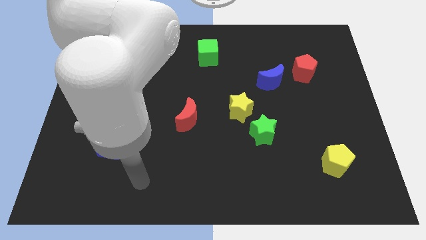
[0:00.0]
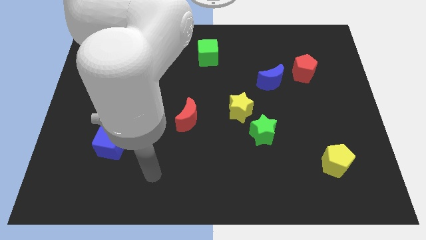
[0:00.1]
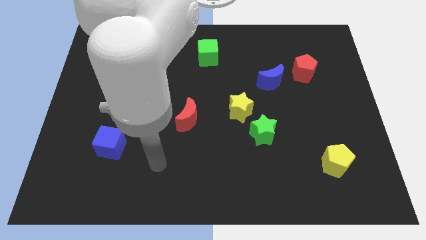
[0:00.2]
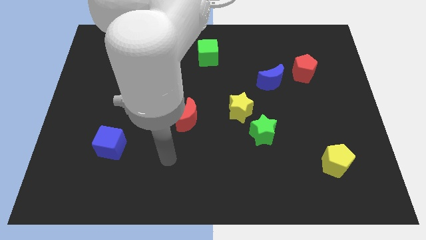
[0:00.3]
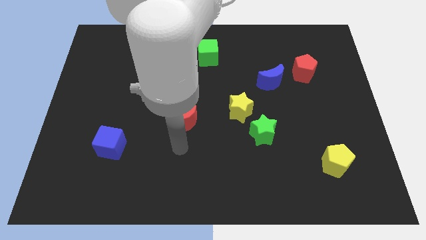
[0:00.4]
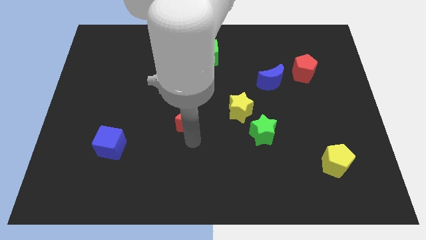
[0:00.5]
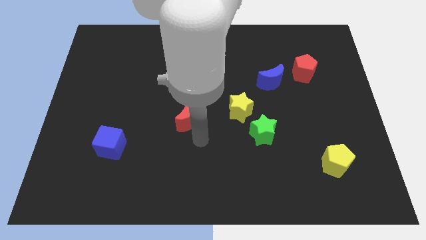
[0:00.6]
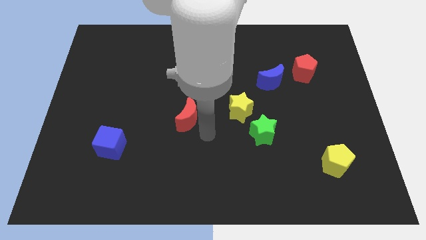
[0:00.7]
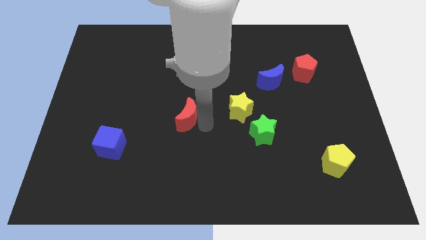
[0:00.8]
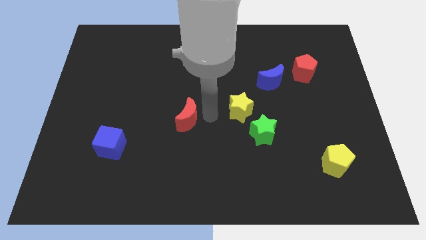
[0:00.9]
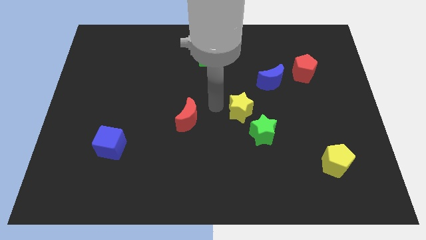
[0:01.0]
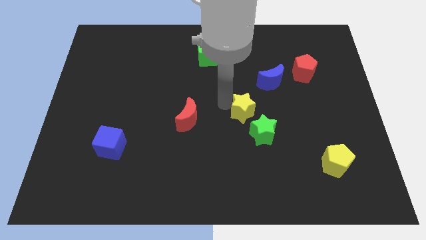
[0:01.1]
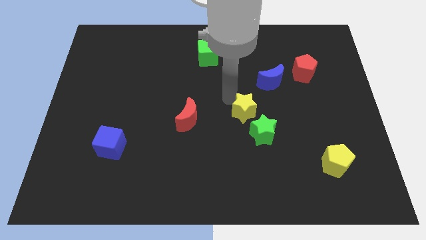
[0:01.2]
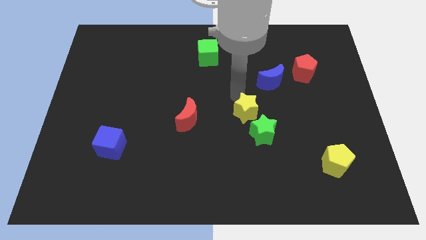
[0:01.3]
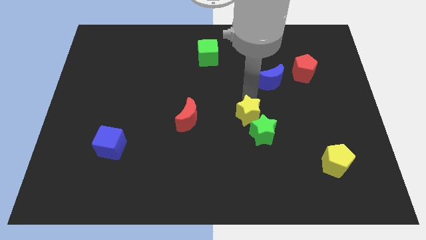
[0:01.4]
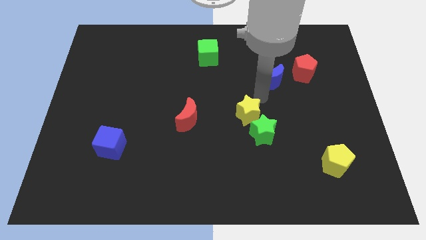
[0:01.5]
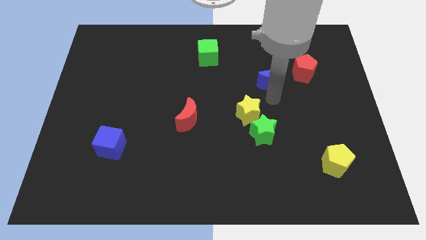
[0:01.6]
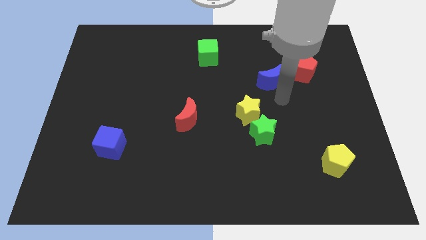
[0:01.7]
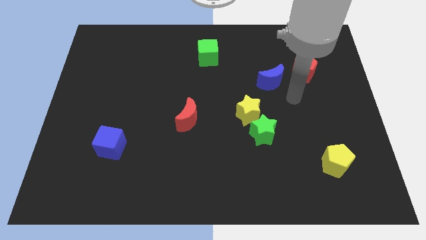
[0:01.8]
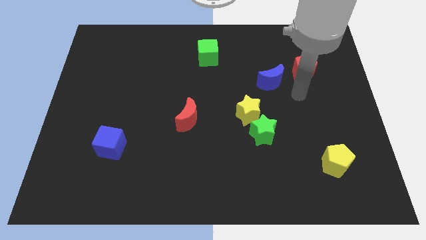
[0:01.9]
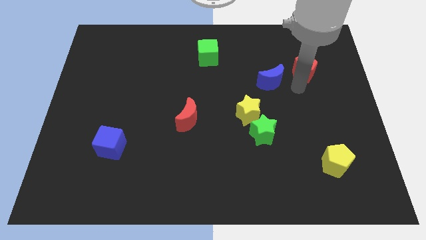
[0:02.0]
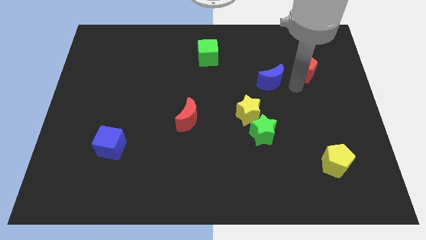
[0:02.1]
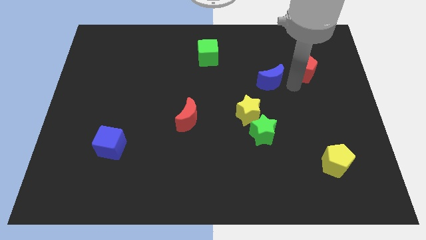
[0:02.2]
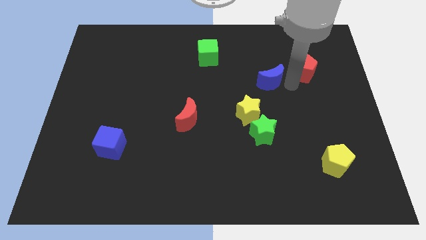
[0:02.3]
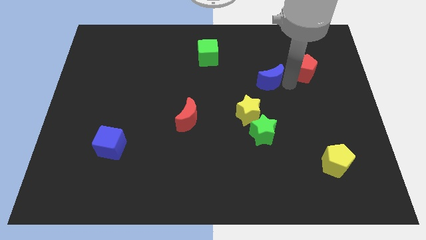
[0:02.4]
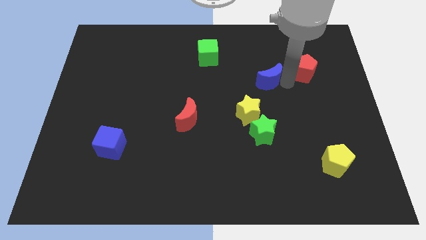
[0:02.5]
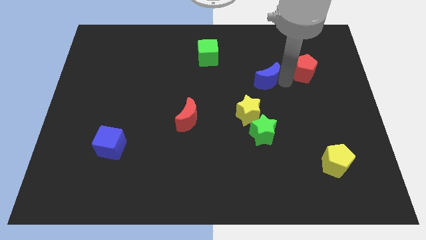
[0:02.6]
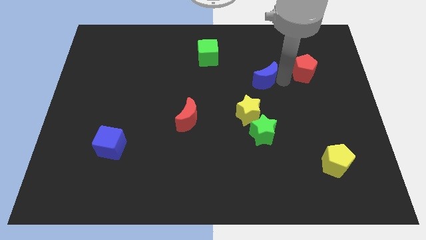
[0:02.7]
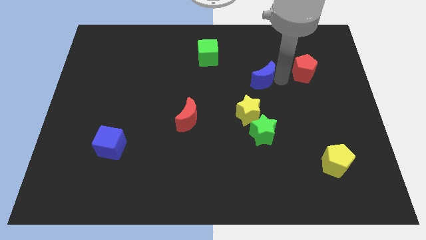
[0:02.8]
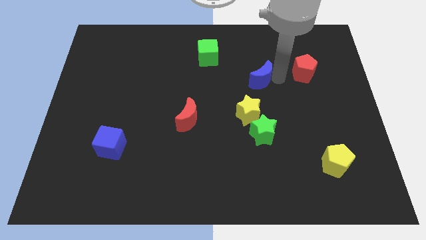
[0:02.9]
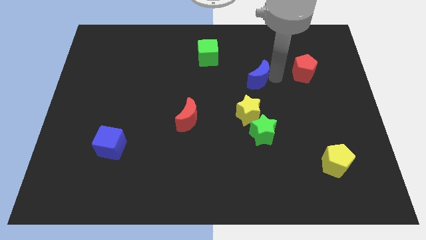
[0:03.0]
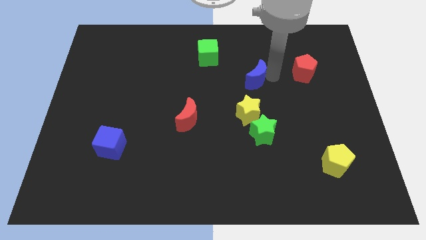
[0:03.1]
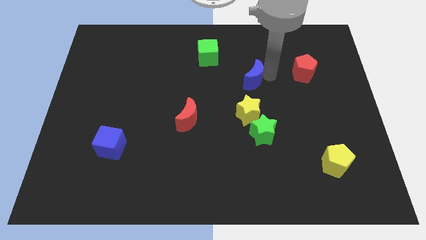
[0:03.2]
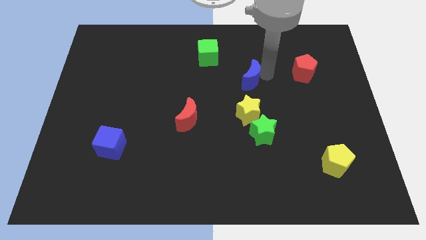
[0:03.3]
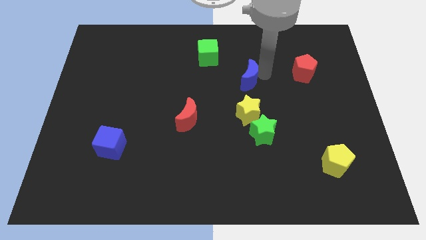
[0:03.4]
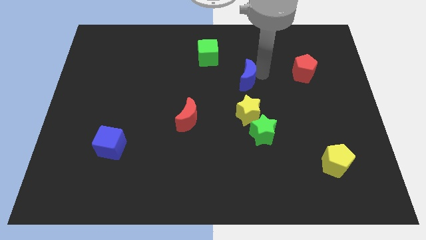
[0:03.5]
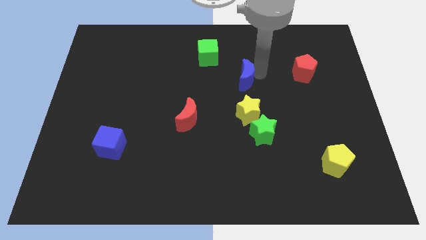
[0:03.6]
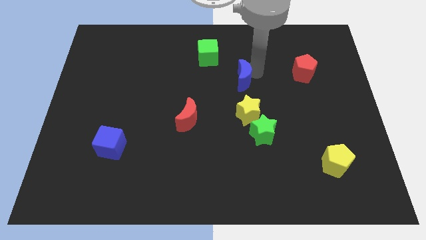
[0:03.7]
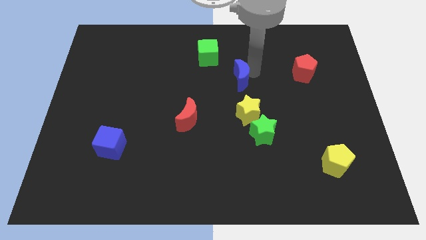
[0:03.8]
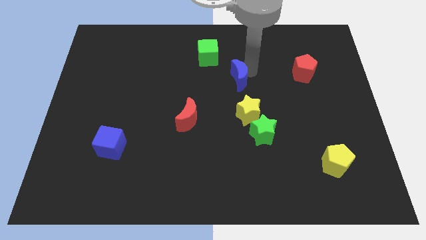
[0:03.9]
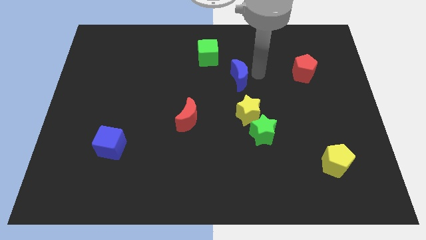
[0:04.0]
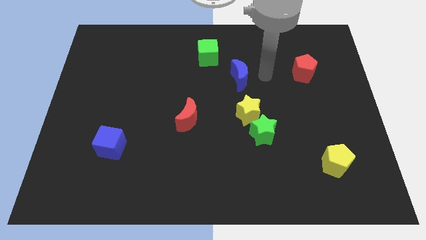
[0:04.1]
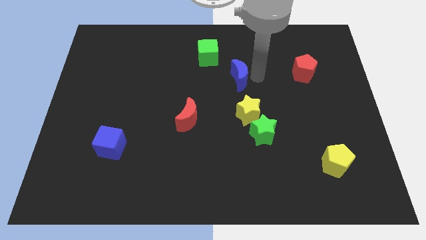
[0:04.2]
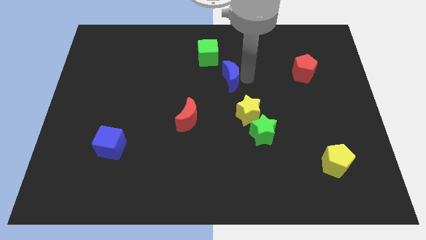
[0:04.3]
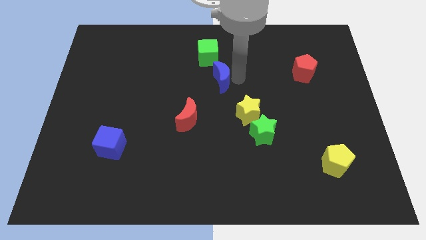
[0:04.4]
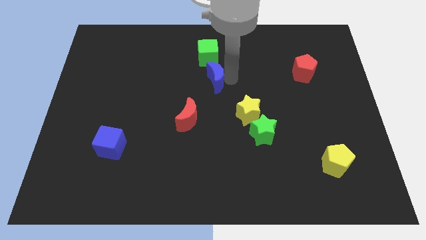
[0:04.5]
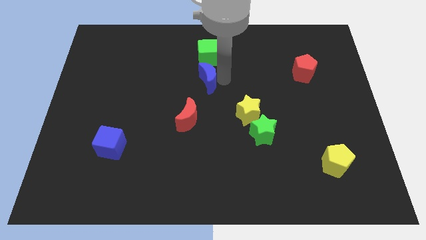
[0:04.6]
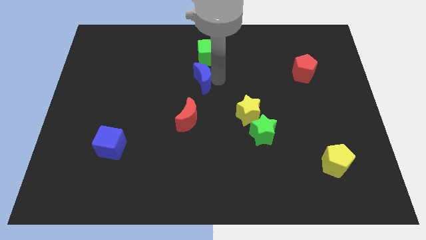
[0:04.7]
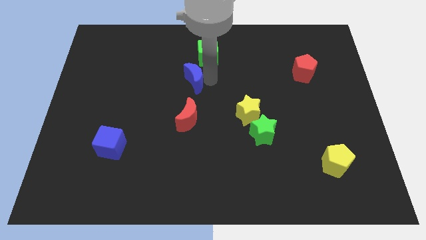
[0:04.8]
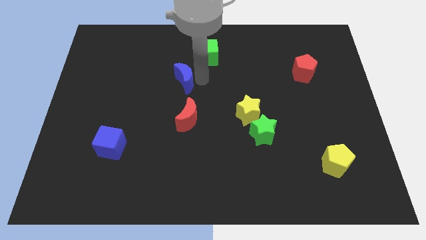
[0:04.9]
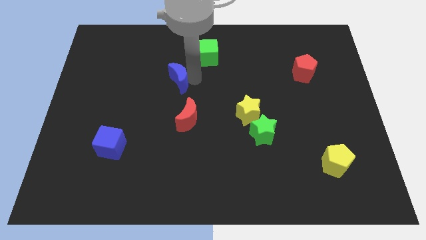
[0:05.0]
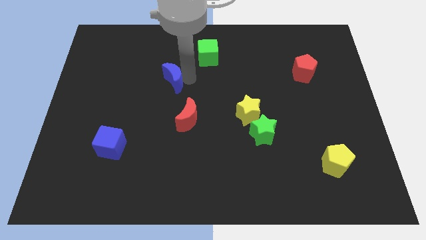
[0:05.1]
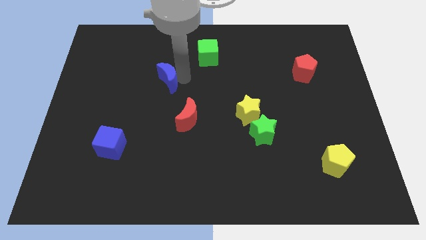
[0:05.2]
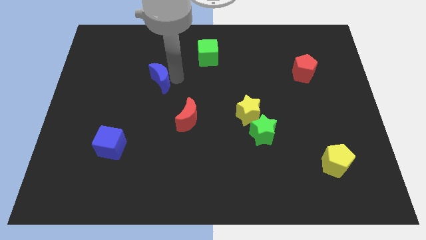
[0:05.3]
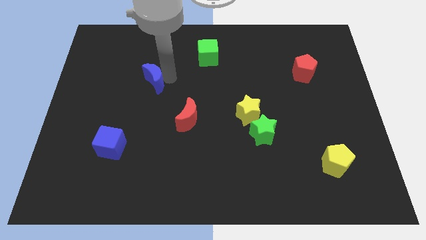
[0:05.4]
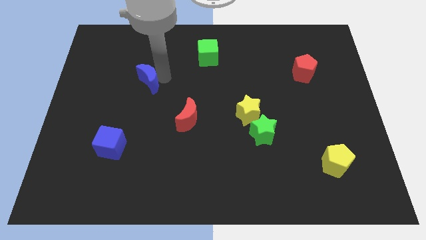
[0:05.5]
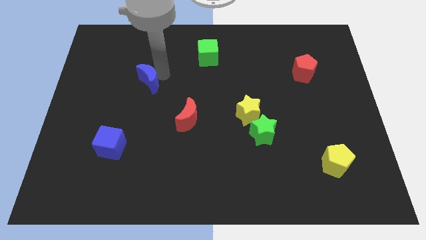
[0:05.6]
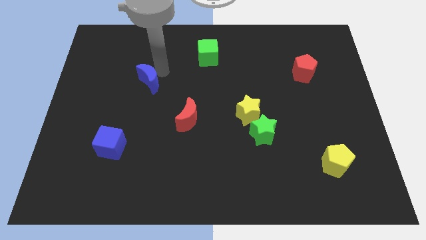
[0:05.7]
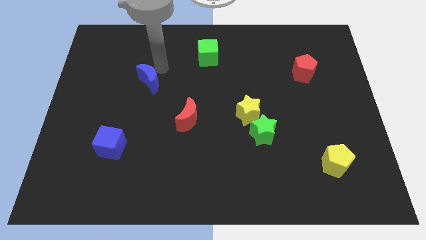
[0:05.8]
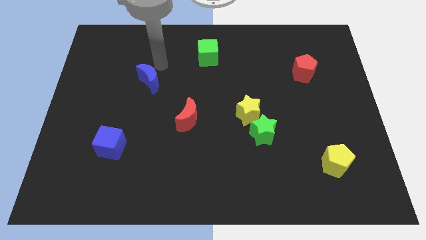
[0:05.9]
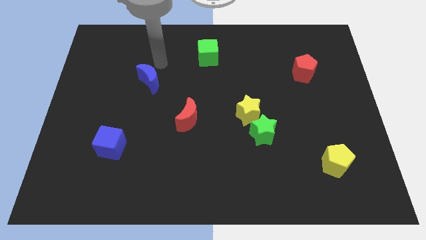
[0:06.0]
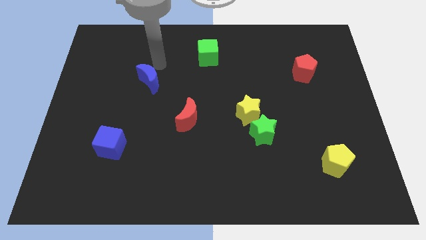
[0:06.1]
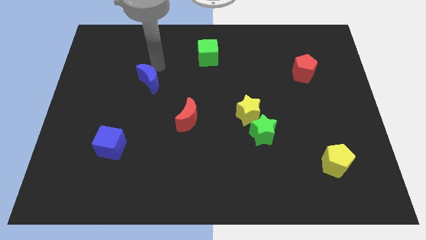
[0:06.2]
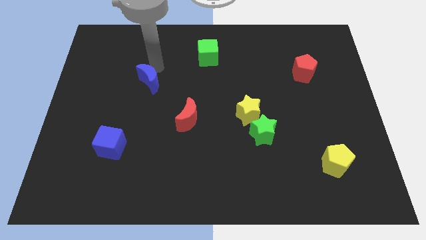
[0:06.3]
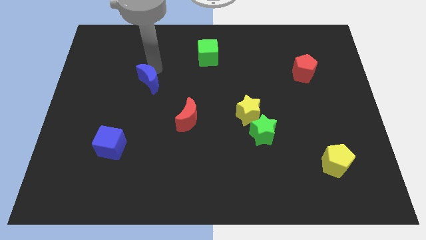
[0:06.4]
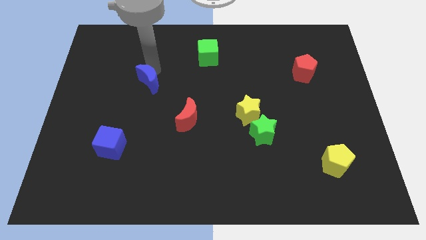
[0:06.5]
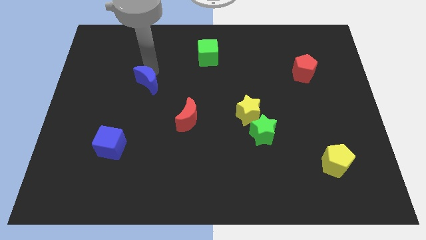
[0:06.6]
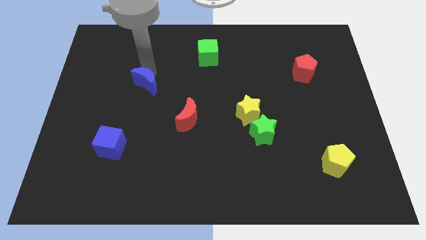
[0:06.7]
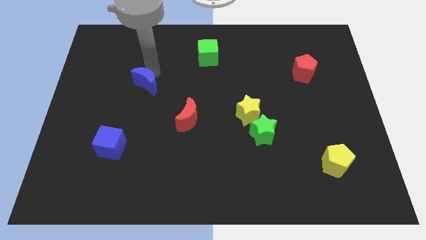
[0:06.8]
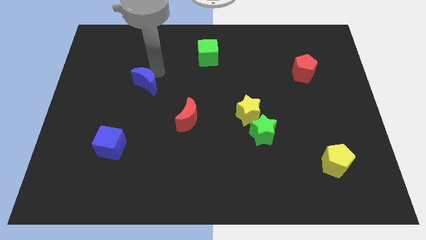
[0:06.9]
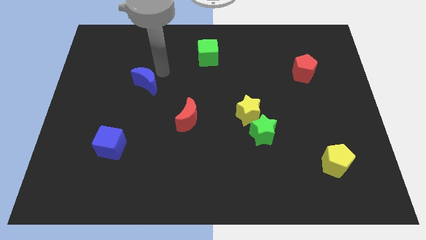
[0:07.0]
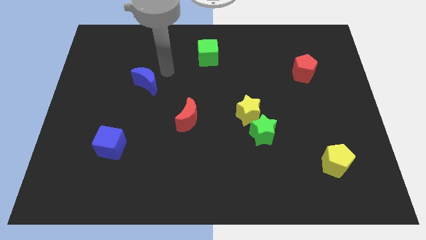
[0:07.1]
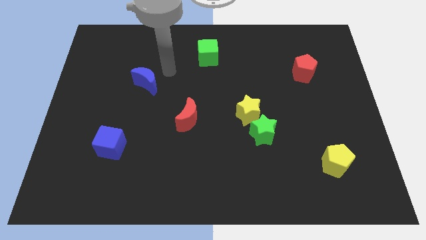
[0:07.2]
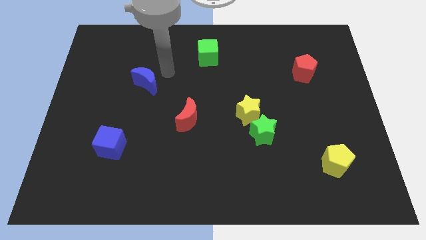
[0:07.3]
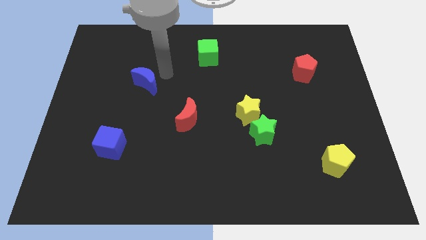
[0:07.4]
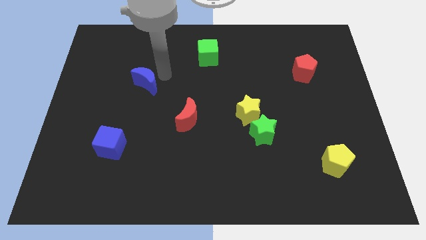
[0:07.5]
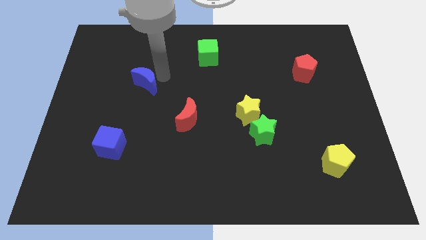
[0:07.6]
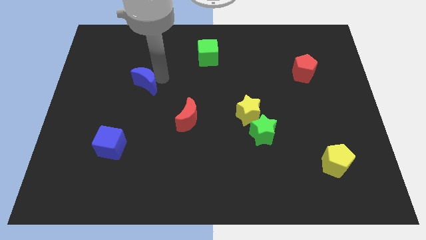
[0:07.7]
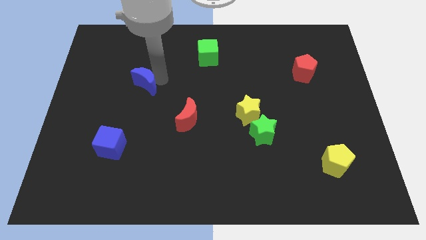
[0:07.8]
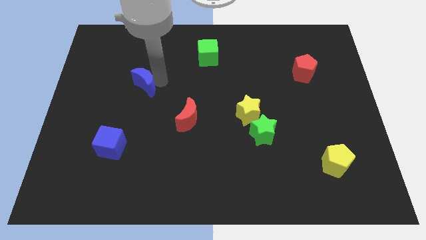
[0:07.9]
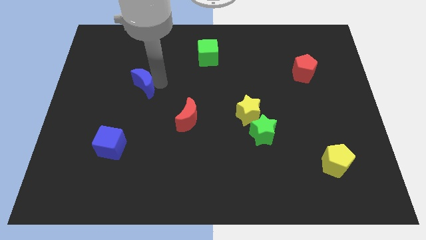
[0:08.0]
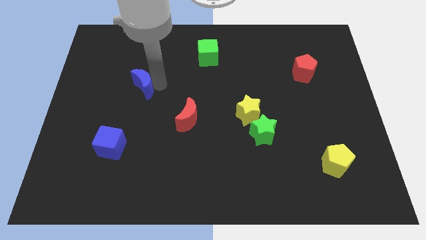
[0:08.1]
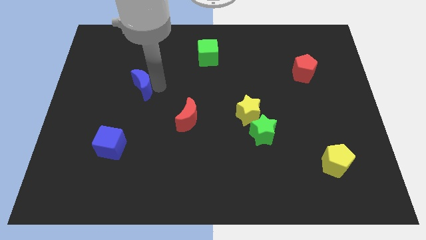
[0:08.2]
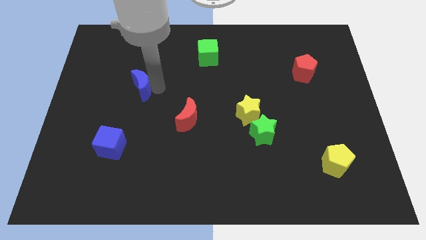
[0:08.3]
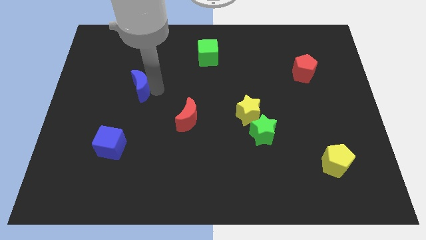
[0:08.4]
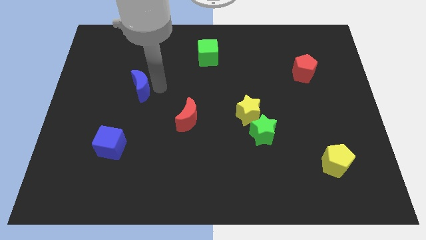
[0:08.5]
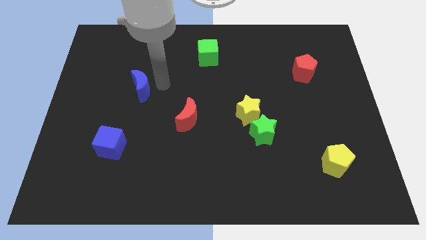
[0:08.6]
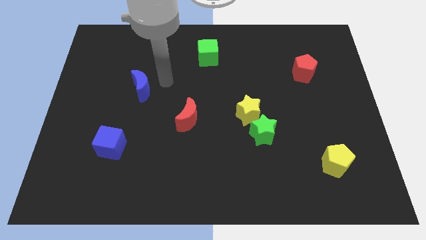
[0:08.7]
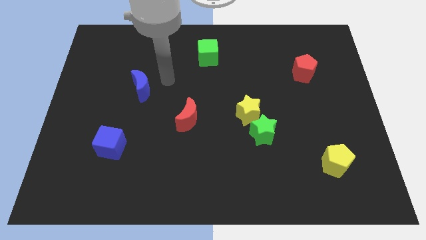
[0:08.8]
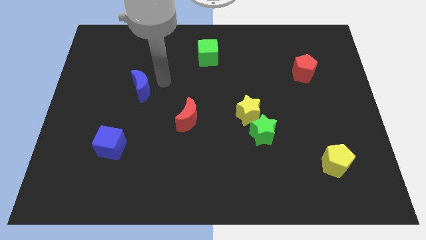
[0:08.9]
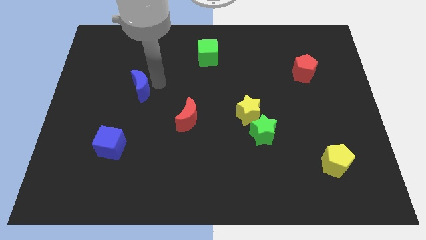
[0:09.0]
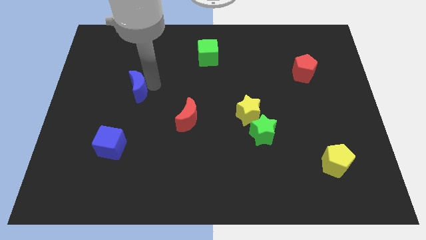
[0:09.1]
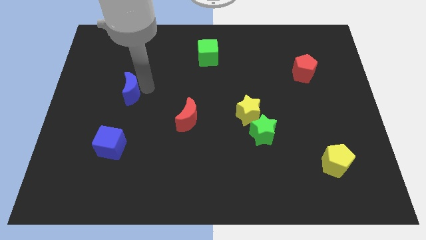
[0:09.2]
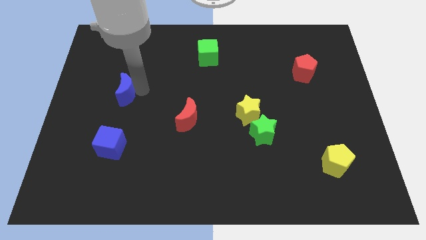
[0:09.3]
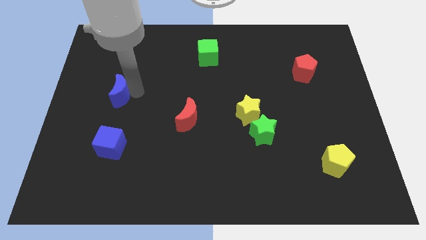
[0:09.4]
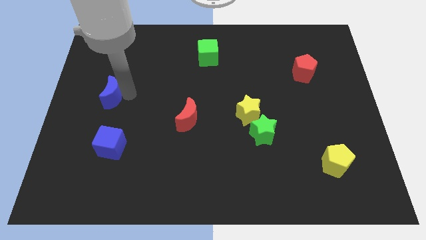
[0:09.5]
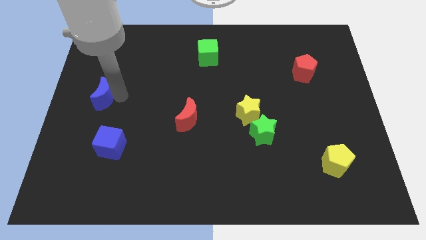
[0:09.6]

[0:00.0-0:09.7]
slide the blue moon to the left side of the board
